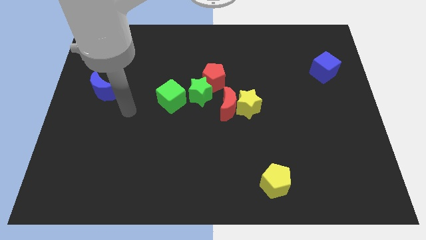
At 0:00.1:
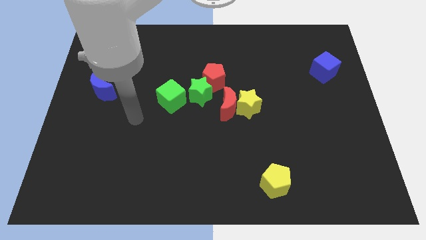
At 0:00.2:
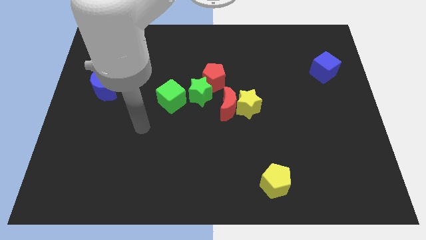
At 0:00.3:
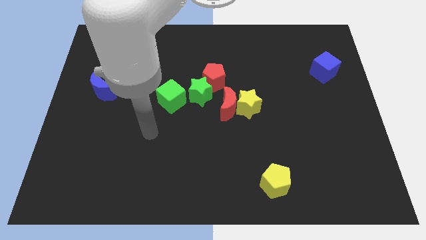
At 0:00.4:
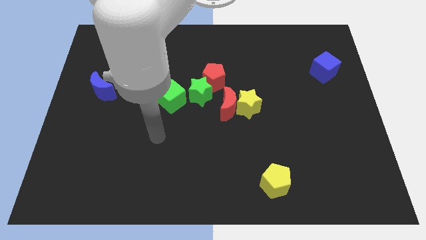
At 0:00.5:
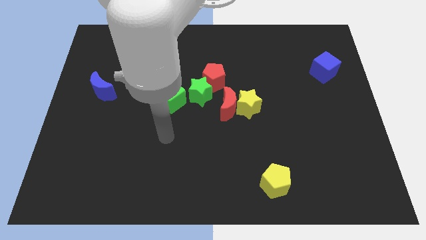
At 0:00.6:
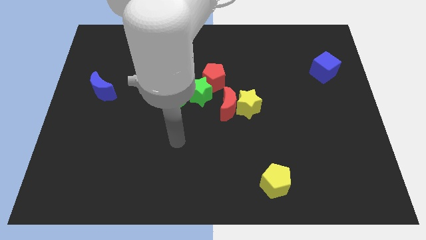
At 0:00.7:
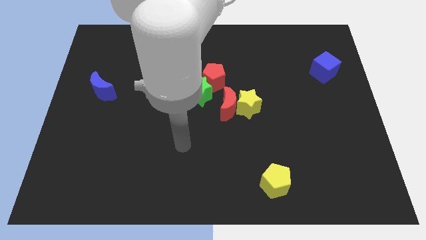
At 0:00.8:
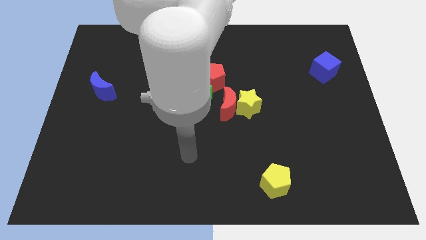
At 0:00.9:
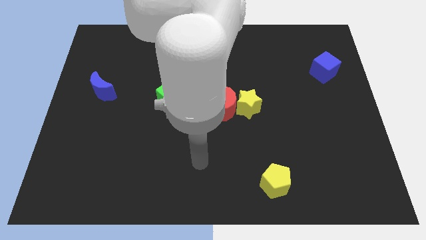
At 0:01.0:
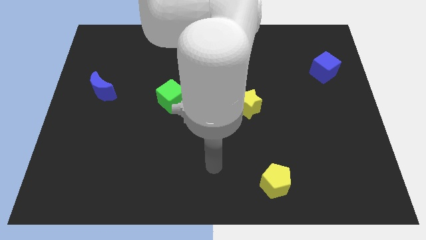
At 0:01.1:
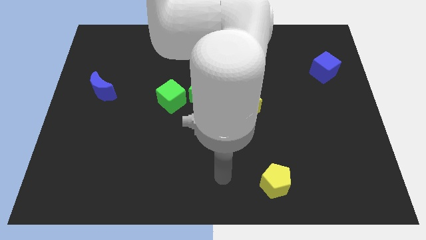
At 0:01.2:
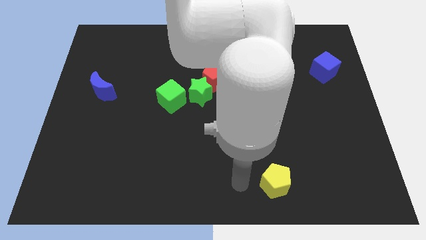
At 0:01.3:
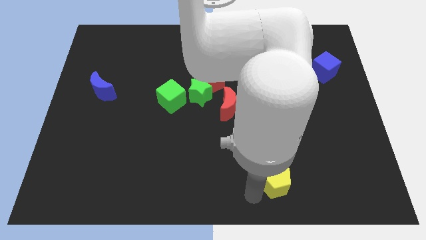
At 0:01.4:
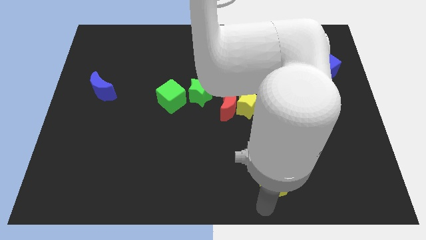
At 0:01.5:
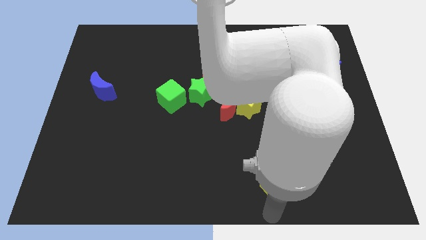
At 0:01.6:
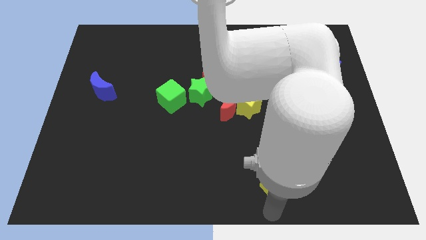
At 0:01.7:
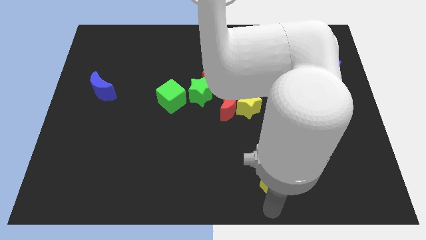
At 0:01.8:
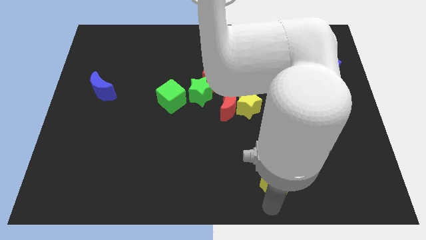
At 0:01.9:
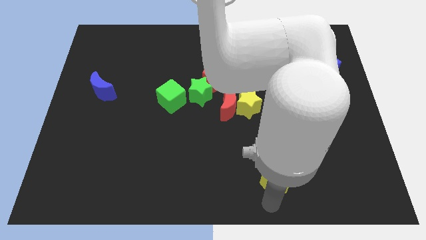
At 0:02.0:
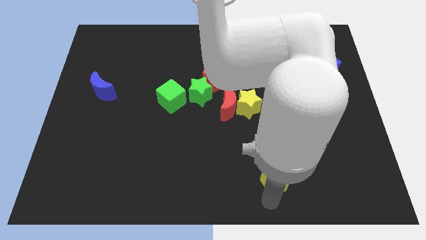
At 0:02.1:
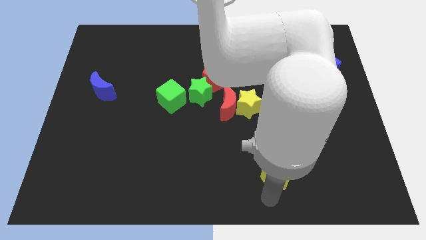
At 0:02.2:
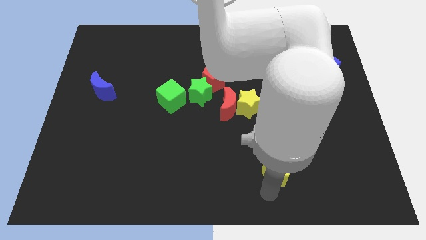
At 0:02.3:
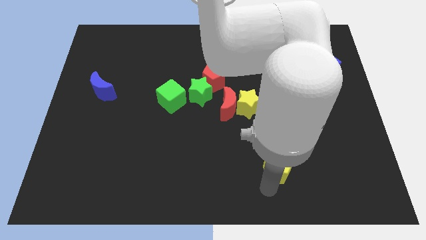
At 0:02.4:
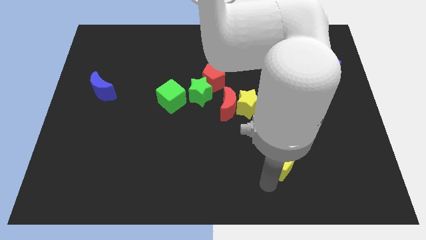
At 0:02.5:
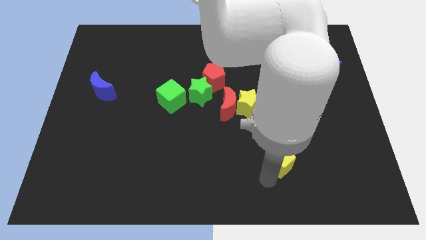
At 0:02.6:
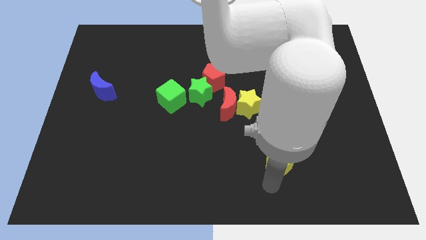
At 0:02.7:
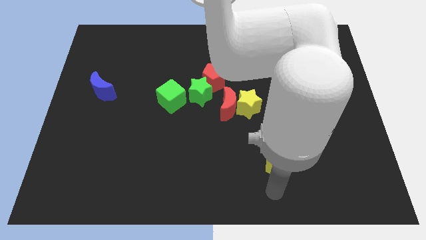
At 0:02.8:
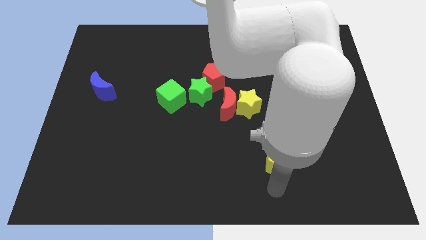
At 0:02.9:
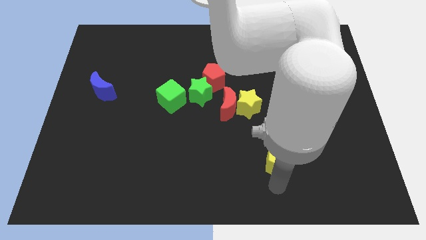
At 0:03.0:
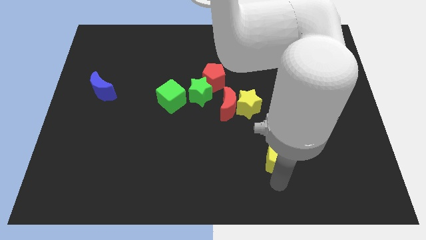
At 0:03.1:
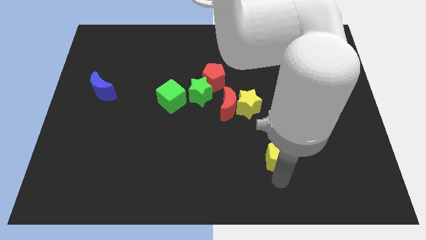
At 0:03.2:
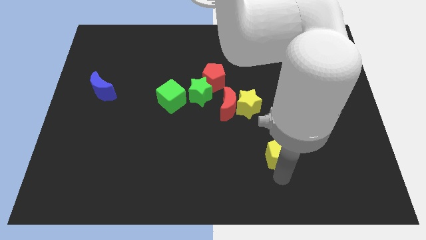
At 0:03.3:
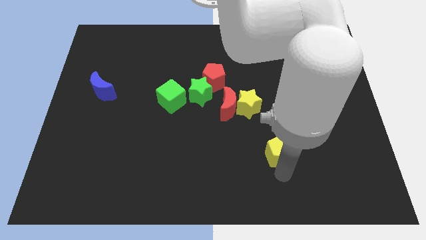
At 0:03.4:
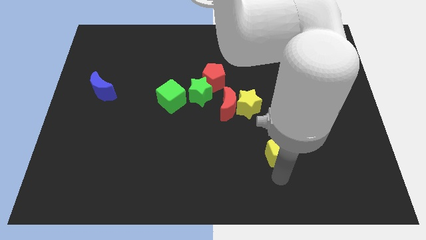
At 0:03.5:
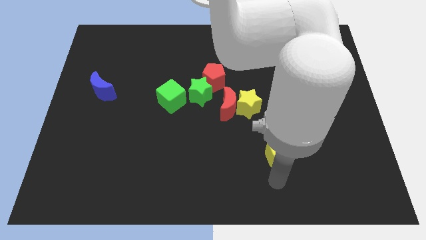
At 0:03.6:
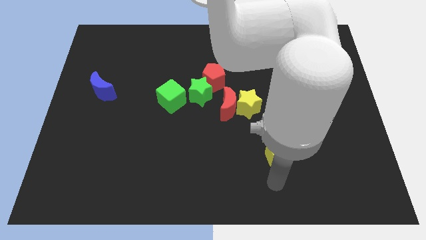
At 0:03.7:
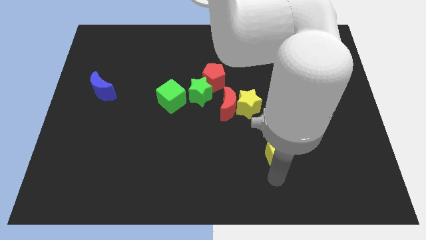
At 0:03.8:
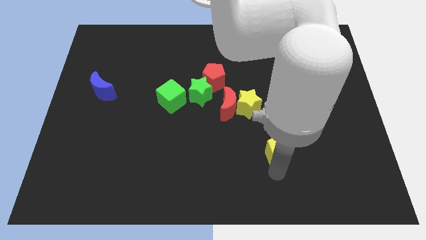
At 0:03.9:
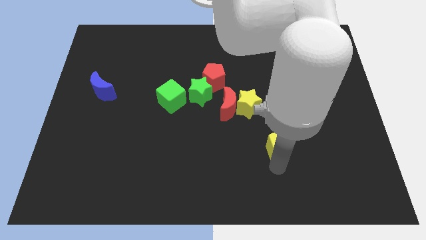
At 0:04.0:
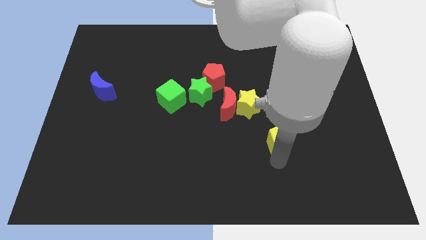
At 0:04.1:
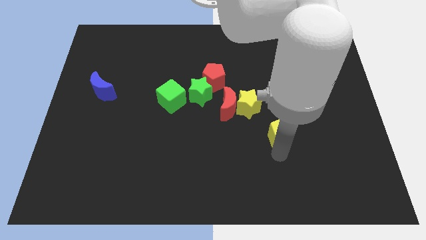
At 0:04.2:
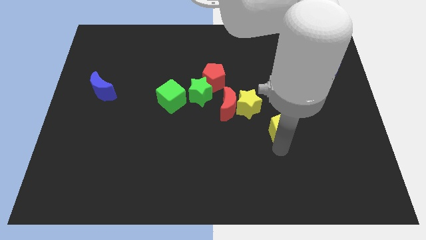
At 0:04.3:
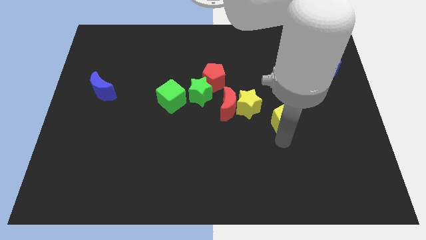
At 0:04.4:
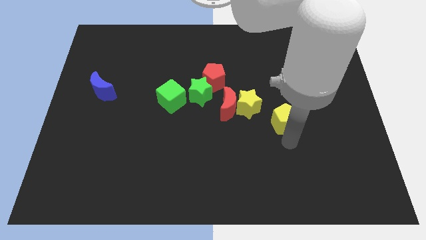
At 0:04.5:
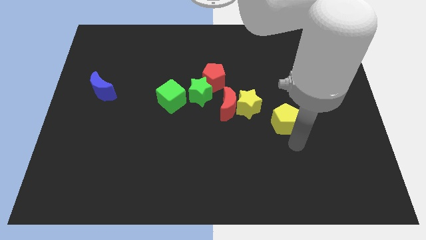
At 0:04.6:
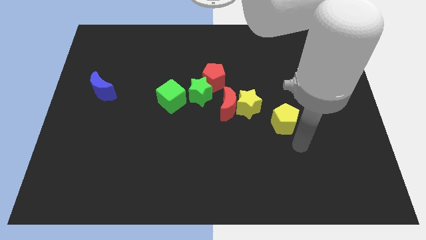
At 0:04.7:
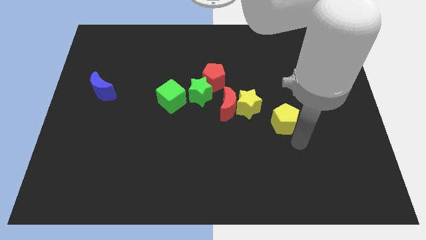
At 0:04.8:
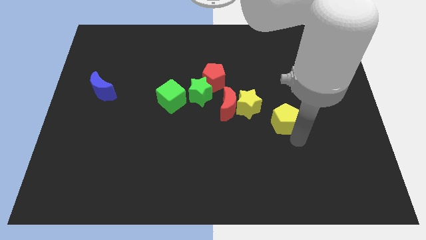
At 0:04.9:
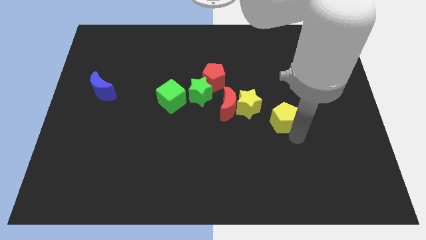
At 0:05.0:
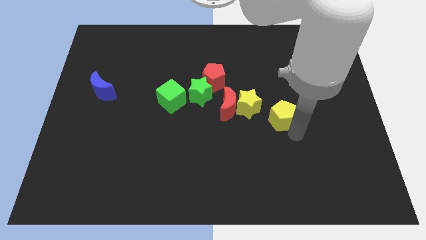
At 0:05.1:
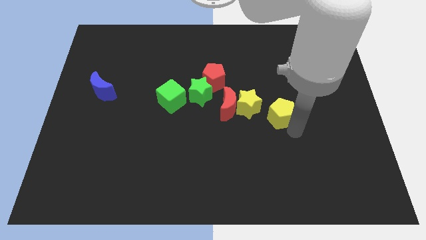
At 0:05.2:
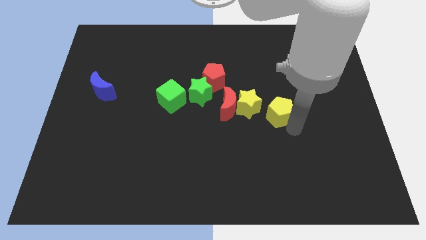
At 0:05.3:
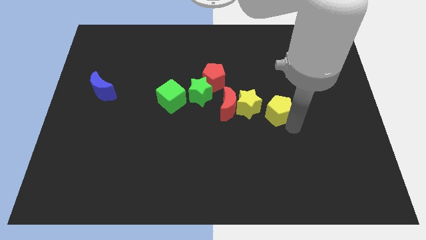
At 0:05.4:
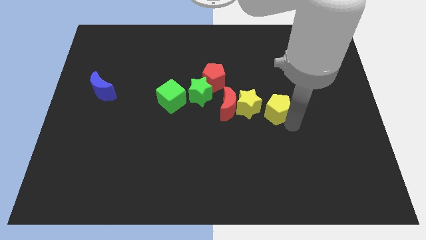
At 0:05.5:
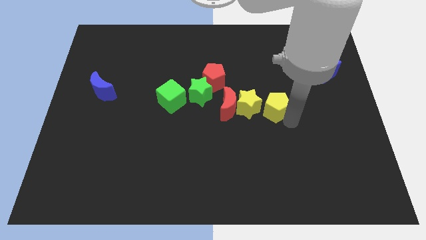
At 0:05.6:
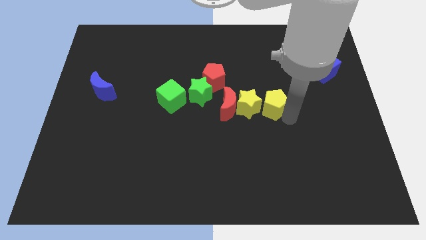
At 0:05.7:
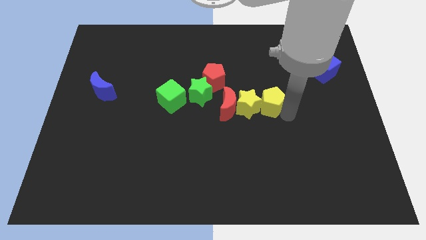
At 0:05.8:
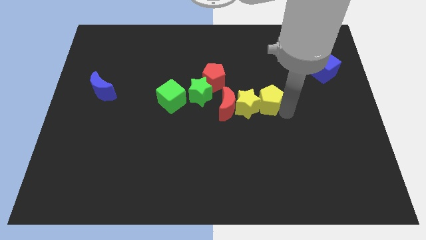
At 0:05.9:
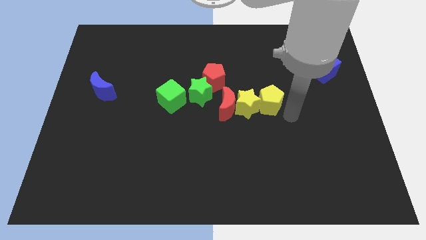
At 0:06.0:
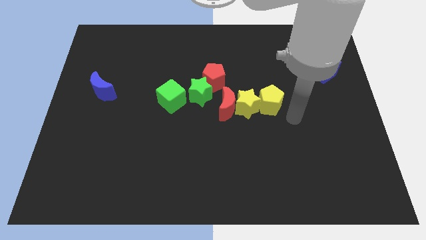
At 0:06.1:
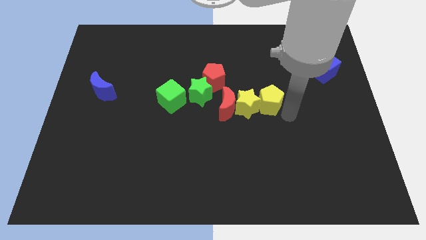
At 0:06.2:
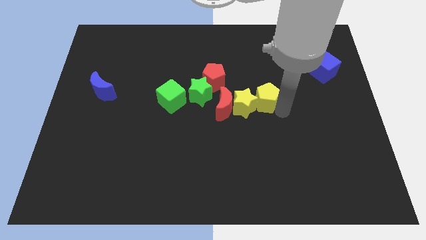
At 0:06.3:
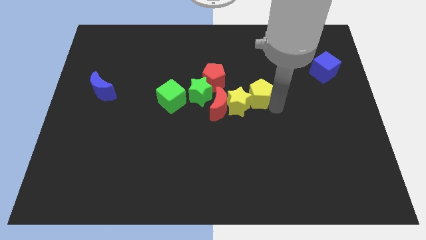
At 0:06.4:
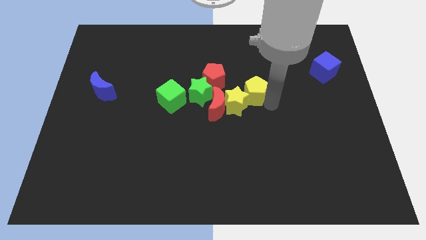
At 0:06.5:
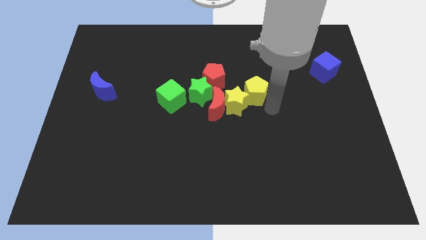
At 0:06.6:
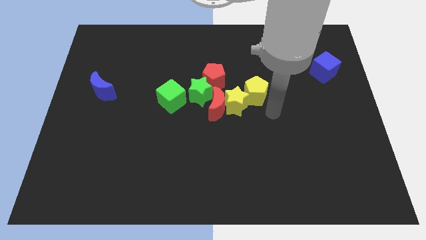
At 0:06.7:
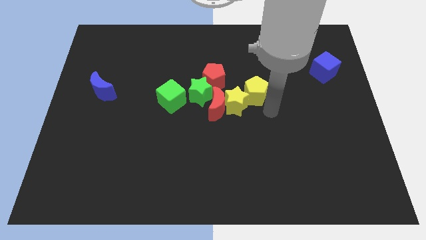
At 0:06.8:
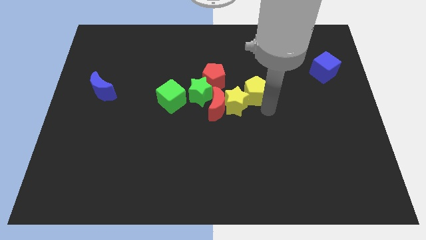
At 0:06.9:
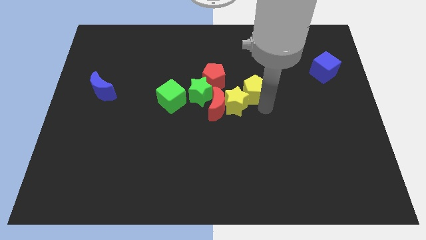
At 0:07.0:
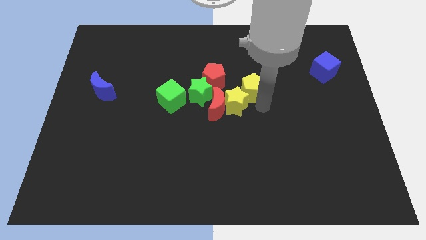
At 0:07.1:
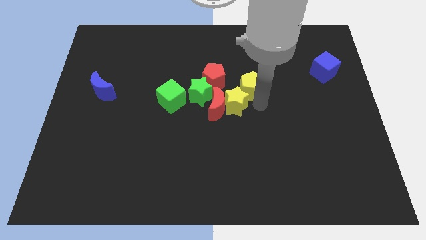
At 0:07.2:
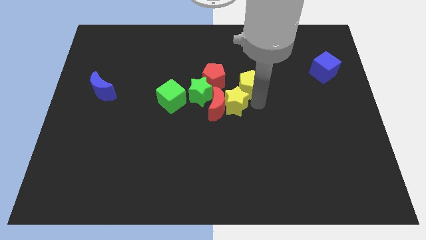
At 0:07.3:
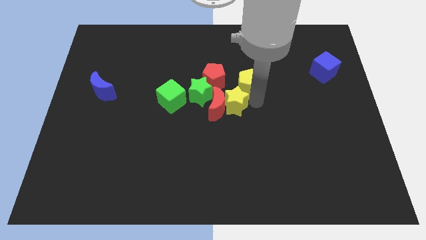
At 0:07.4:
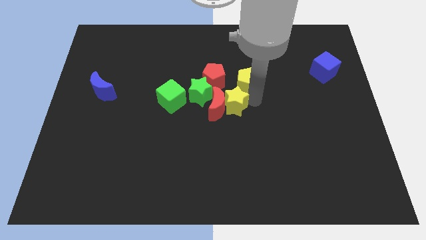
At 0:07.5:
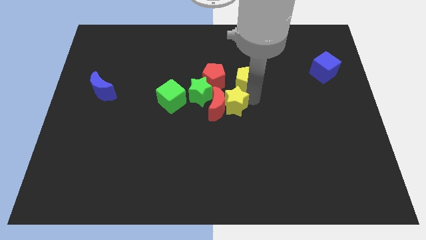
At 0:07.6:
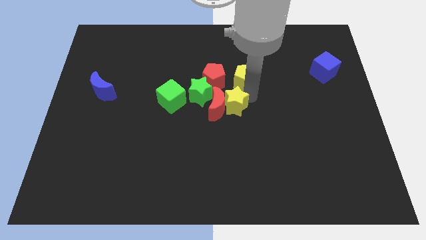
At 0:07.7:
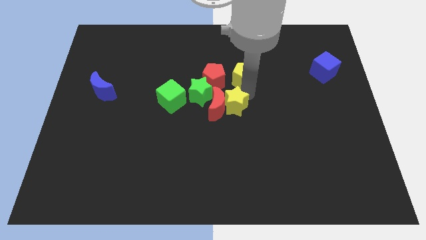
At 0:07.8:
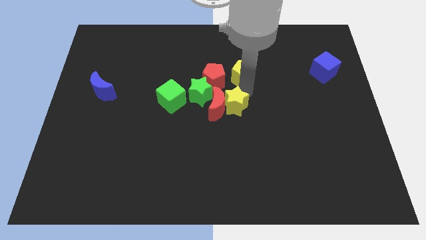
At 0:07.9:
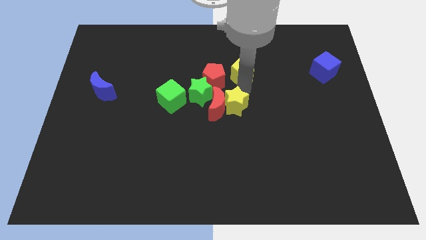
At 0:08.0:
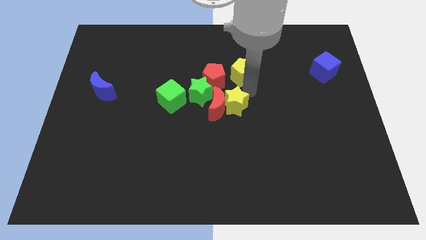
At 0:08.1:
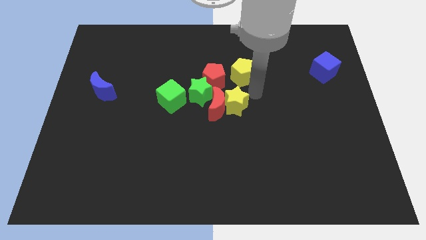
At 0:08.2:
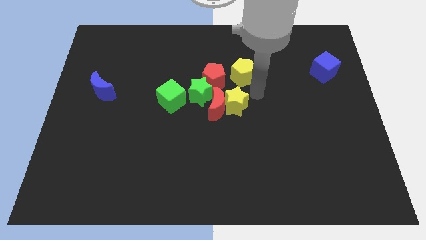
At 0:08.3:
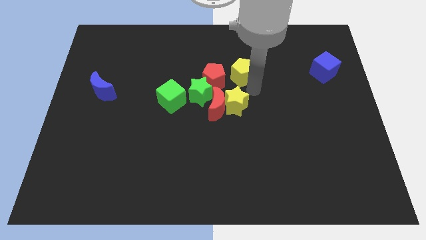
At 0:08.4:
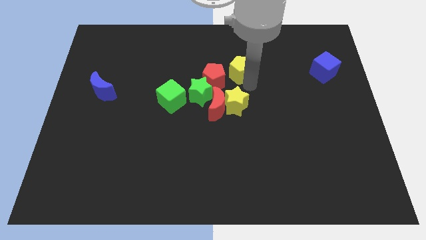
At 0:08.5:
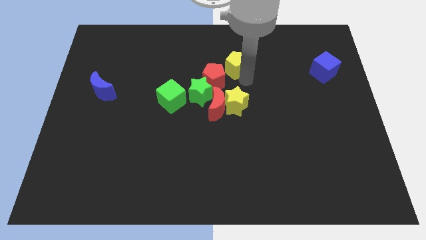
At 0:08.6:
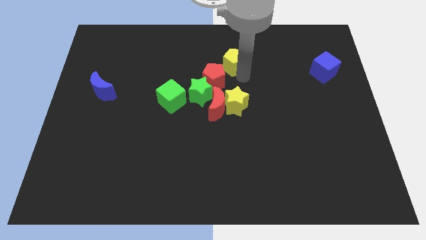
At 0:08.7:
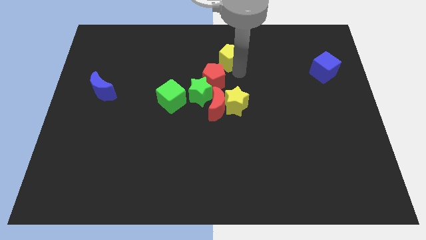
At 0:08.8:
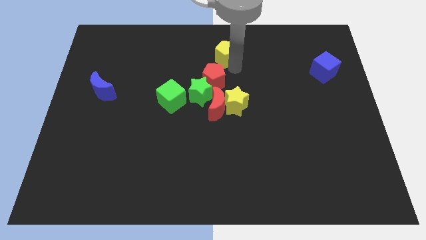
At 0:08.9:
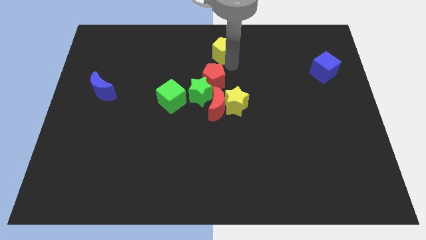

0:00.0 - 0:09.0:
slide the yellow pentagon to the top side
